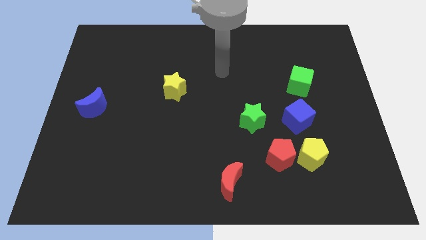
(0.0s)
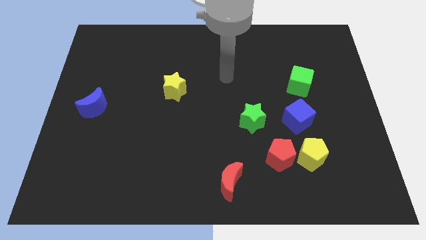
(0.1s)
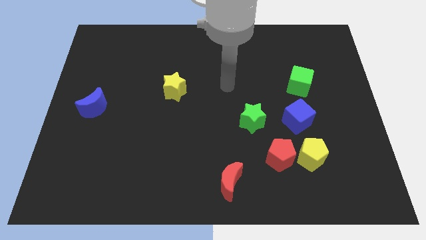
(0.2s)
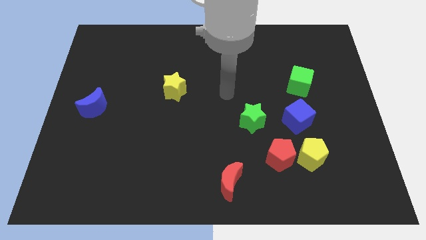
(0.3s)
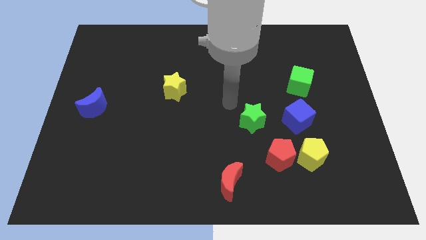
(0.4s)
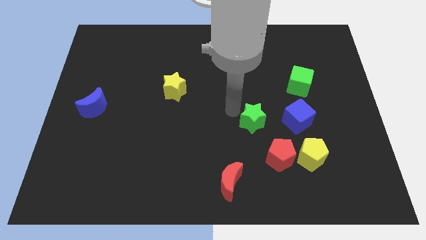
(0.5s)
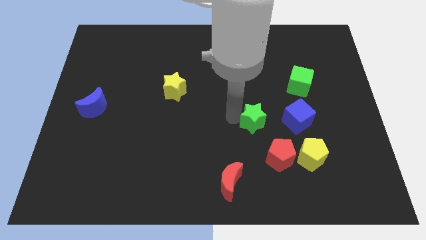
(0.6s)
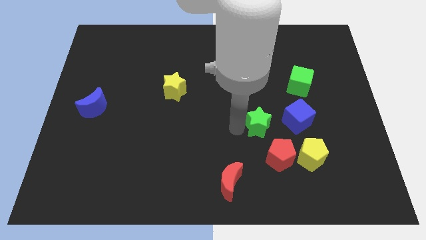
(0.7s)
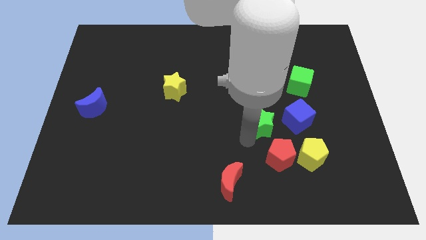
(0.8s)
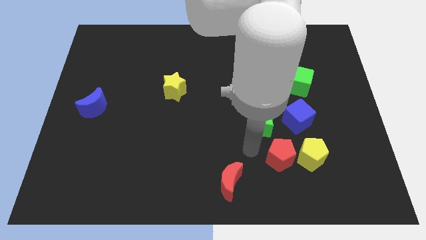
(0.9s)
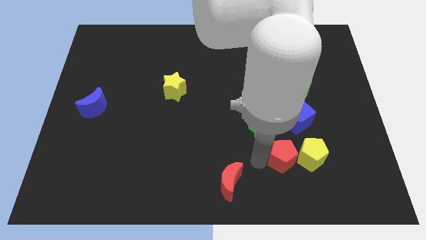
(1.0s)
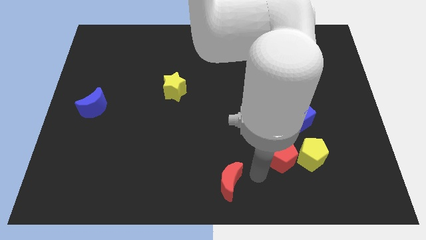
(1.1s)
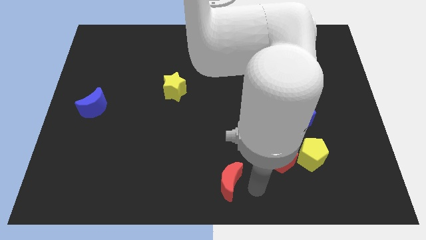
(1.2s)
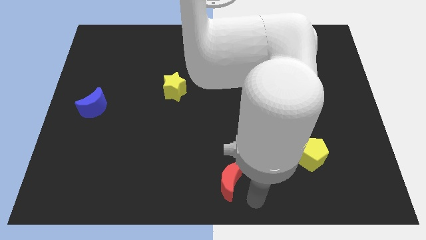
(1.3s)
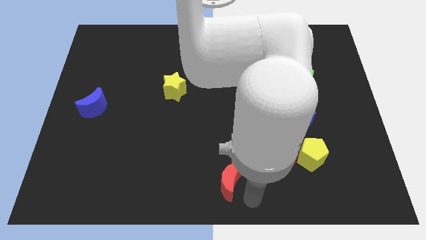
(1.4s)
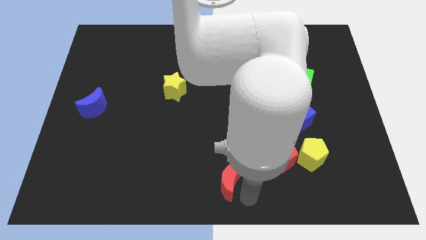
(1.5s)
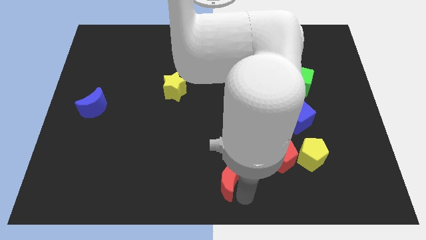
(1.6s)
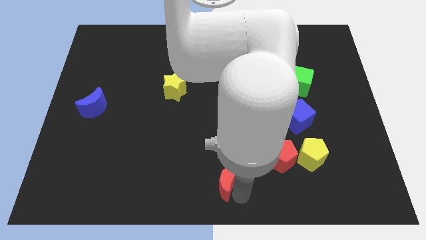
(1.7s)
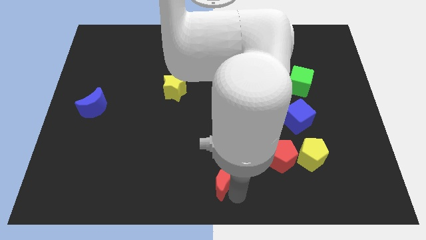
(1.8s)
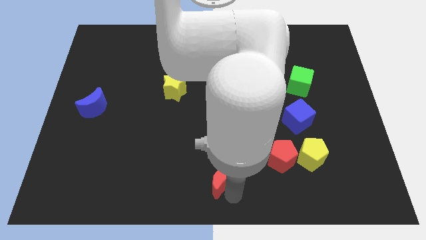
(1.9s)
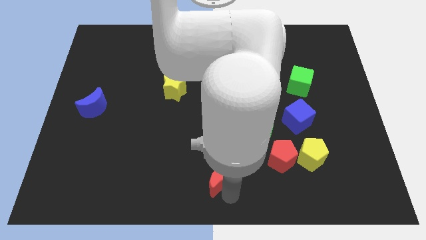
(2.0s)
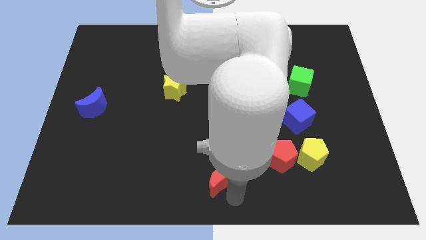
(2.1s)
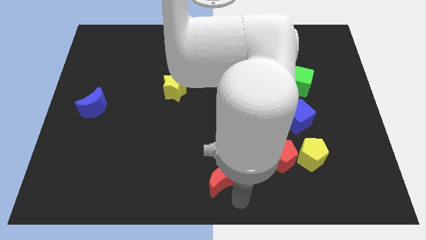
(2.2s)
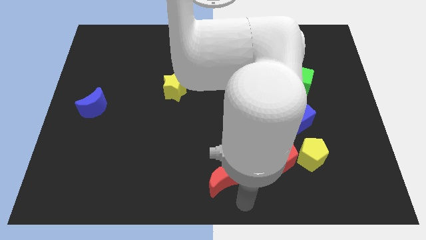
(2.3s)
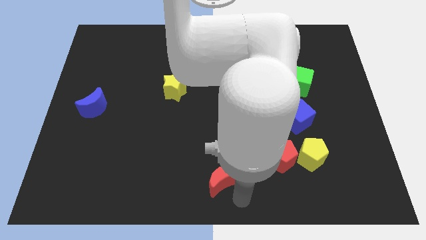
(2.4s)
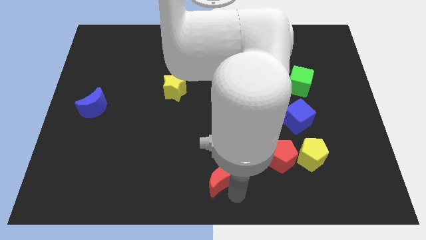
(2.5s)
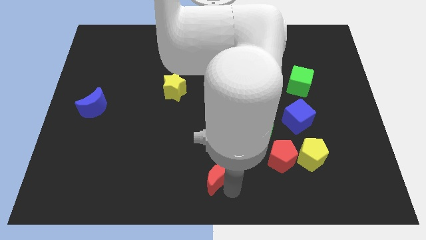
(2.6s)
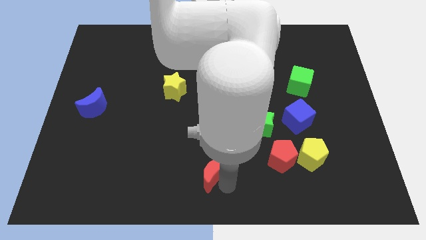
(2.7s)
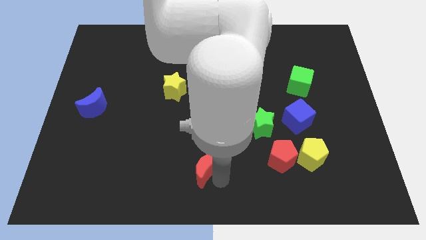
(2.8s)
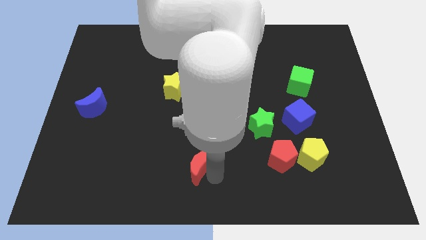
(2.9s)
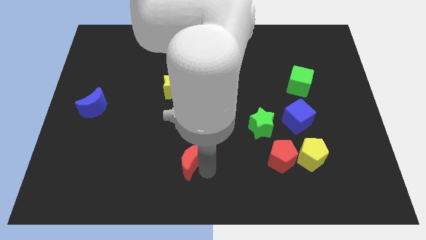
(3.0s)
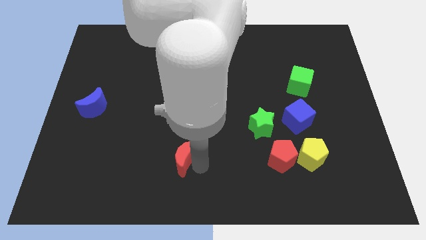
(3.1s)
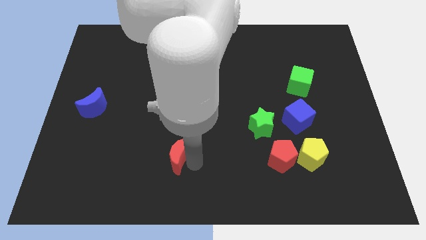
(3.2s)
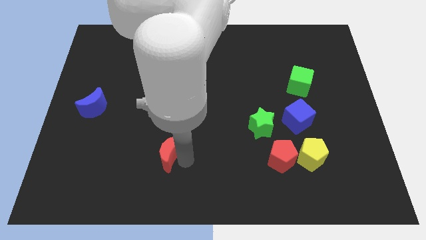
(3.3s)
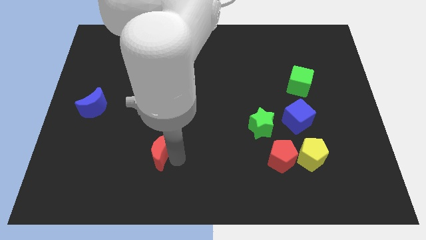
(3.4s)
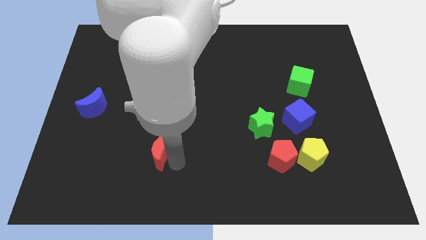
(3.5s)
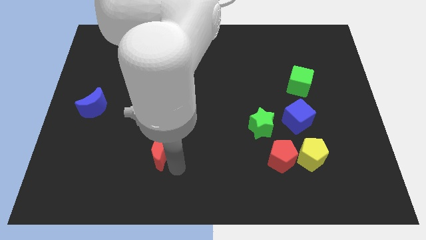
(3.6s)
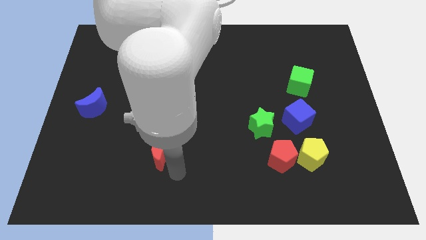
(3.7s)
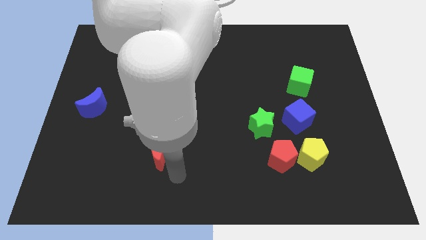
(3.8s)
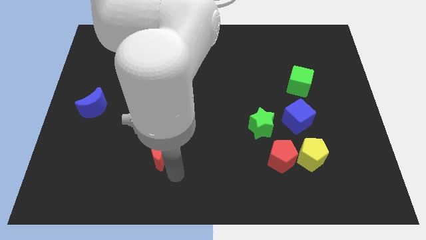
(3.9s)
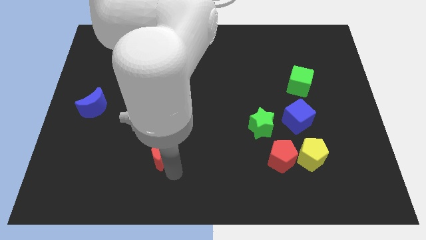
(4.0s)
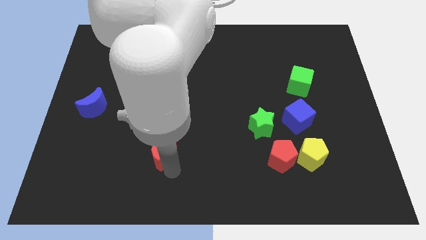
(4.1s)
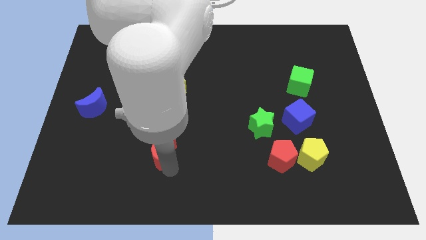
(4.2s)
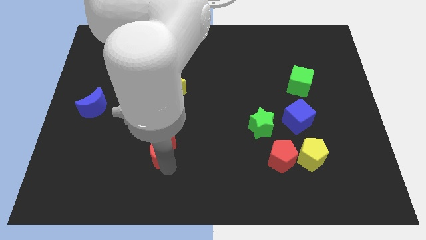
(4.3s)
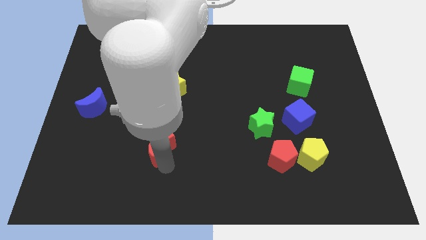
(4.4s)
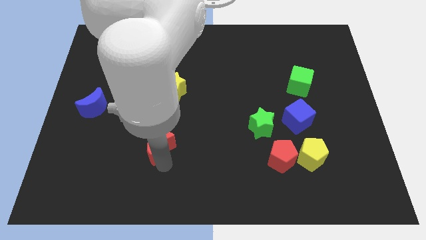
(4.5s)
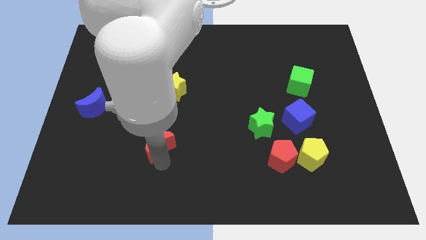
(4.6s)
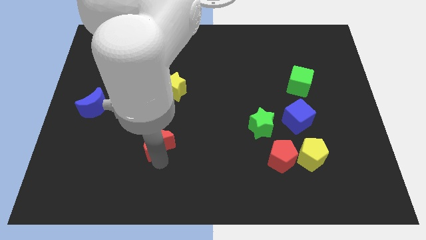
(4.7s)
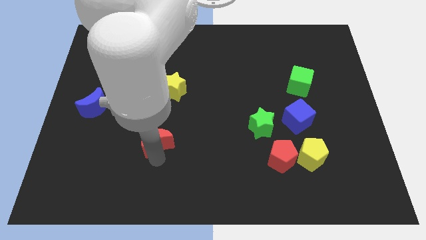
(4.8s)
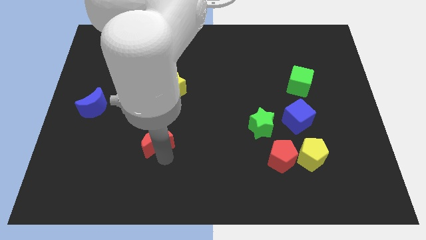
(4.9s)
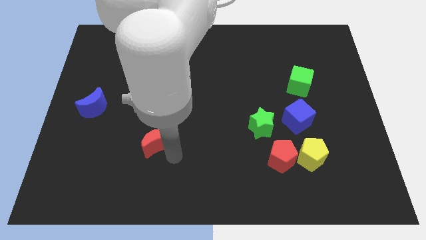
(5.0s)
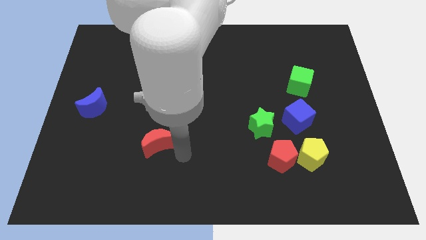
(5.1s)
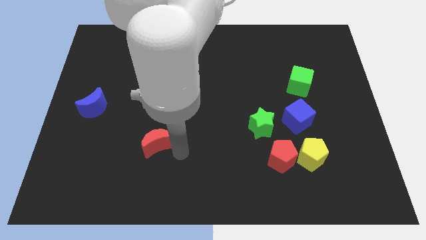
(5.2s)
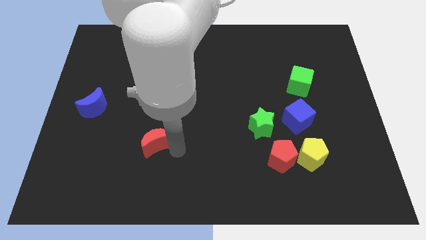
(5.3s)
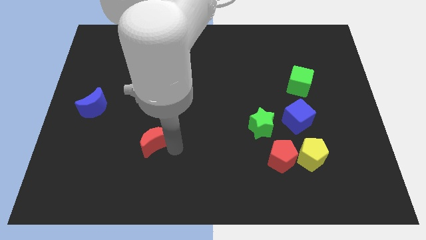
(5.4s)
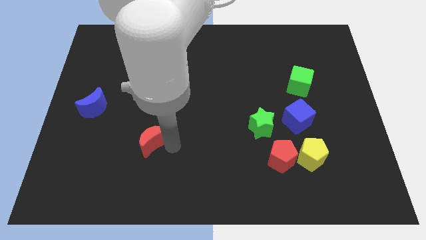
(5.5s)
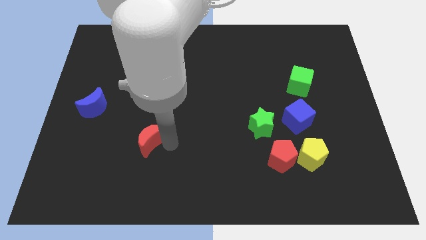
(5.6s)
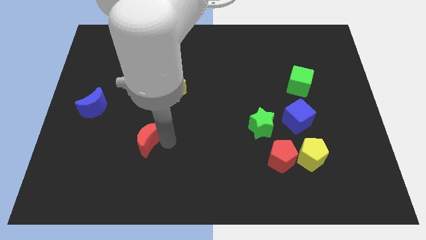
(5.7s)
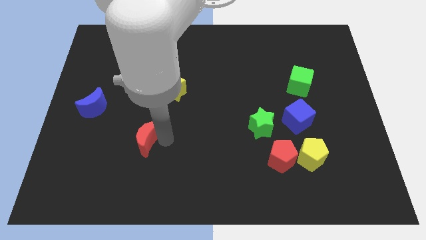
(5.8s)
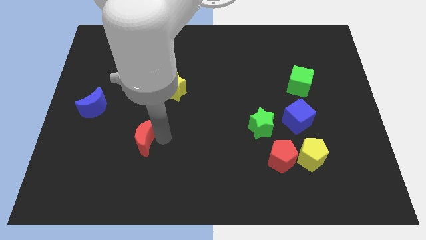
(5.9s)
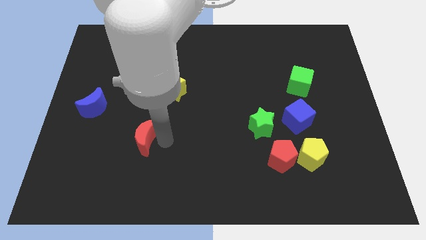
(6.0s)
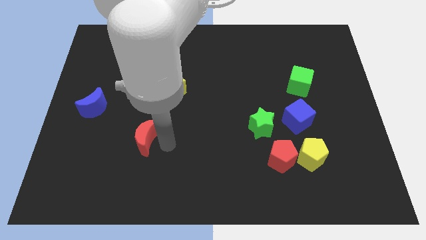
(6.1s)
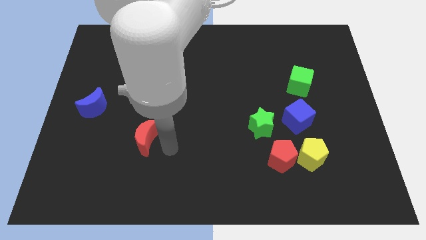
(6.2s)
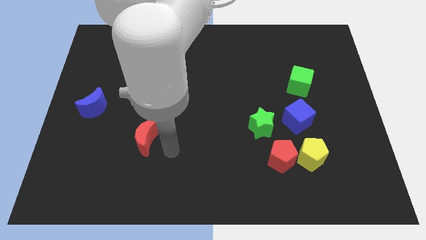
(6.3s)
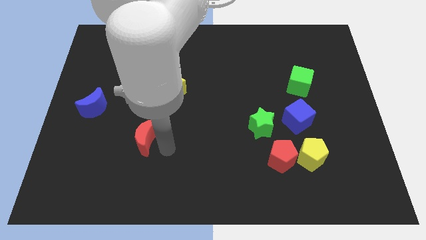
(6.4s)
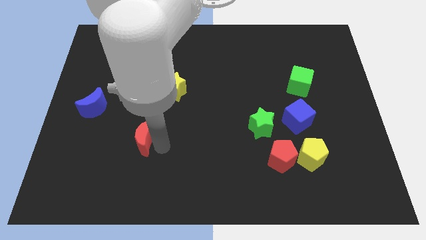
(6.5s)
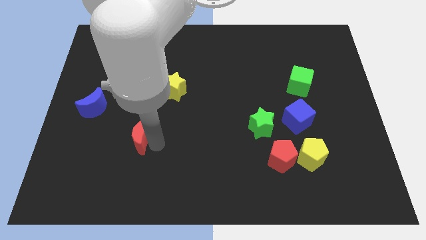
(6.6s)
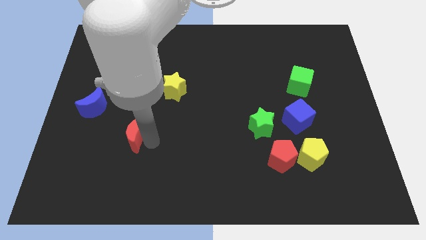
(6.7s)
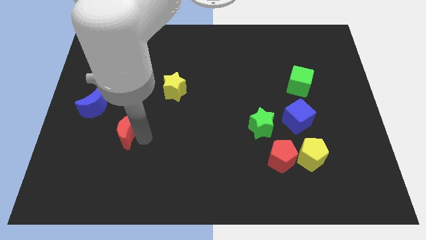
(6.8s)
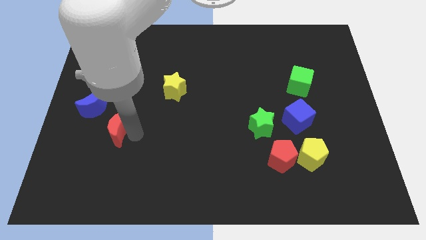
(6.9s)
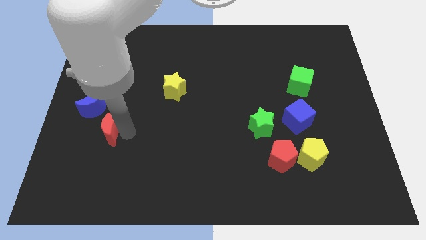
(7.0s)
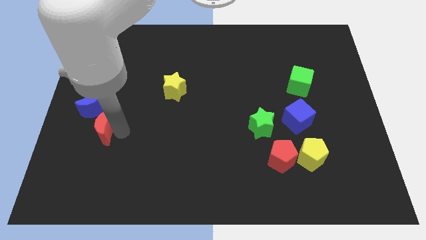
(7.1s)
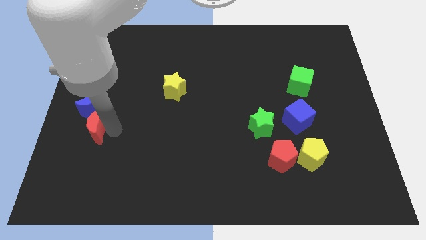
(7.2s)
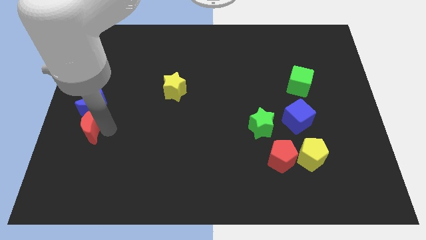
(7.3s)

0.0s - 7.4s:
put the red moon to the center left
